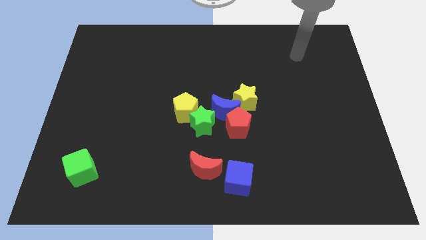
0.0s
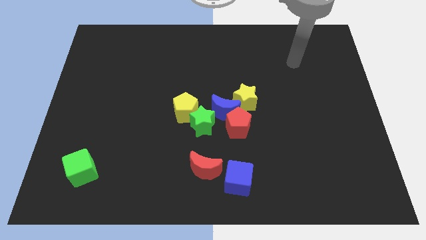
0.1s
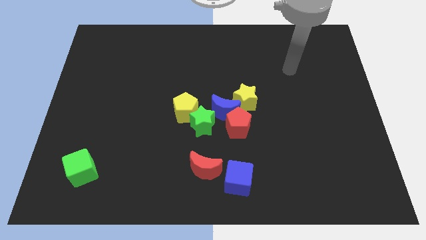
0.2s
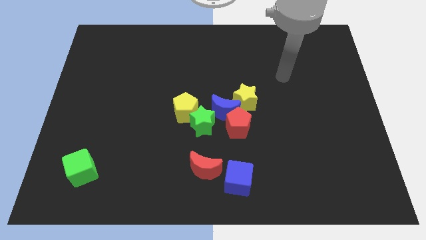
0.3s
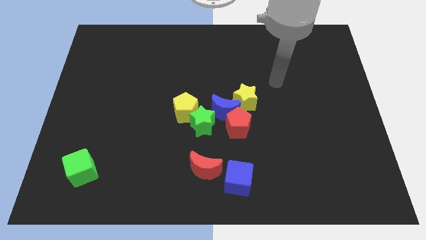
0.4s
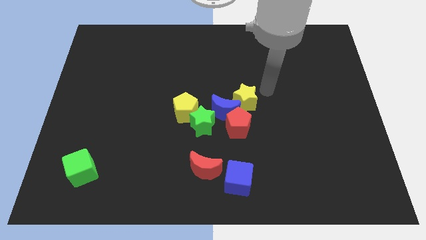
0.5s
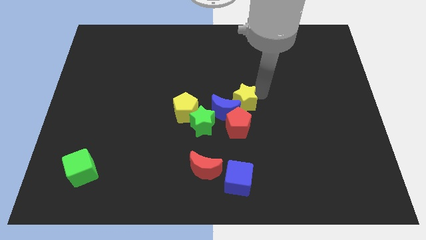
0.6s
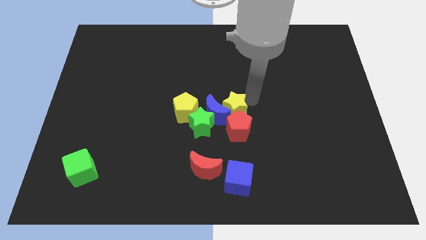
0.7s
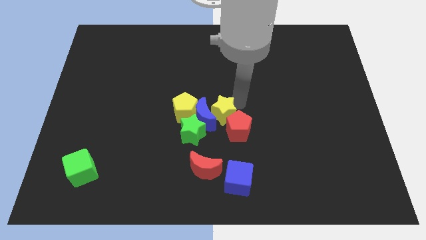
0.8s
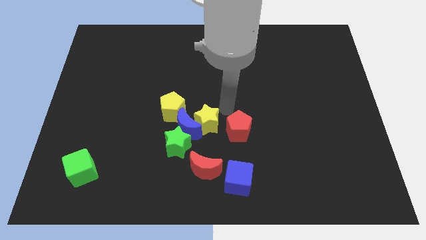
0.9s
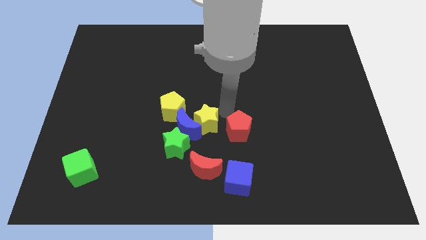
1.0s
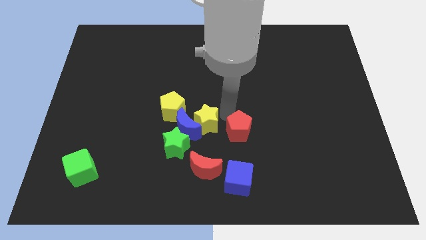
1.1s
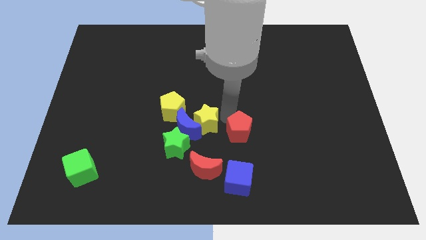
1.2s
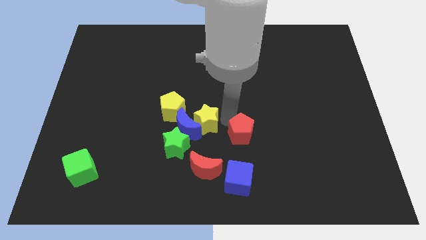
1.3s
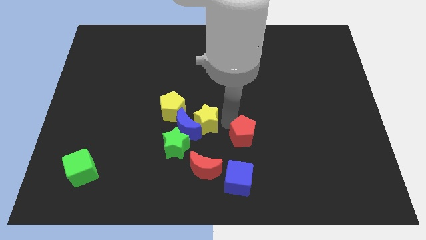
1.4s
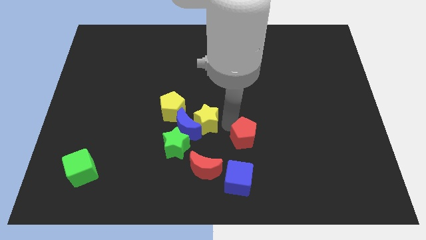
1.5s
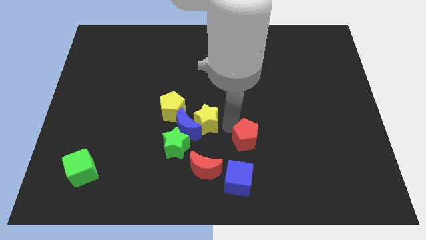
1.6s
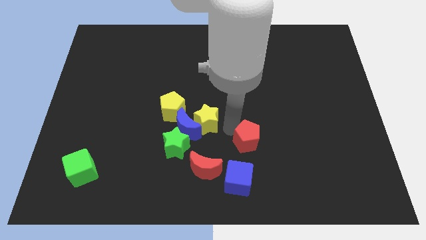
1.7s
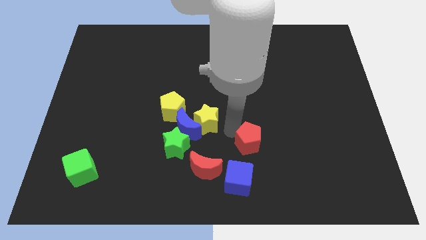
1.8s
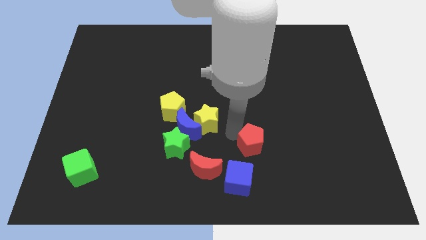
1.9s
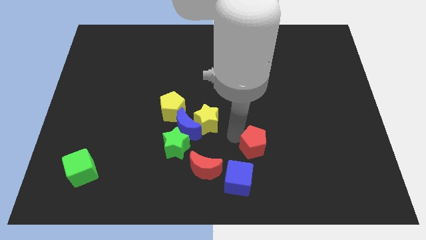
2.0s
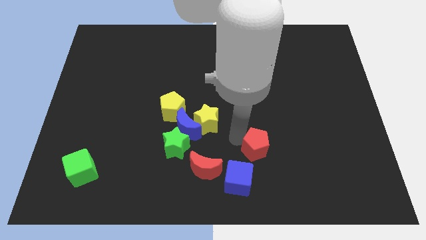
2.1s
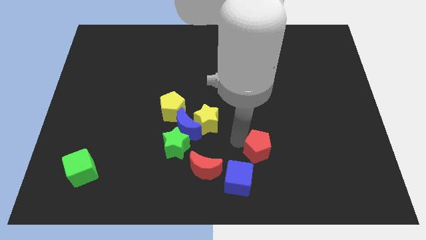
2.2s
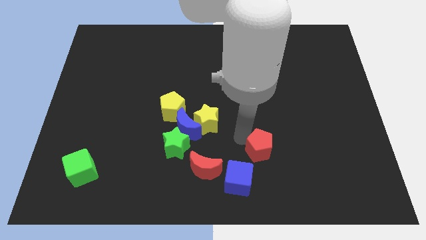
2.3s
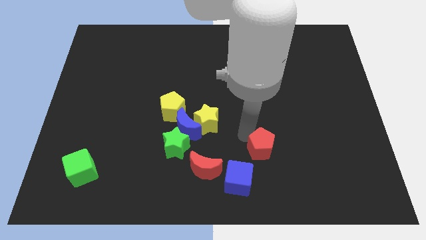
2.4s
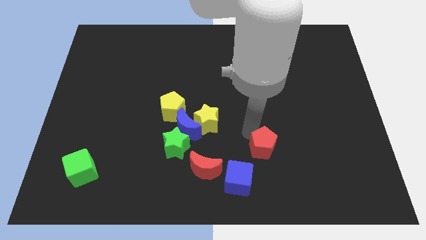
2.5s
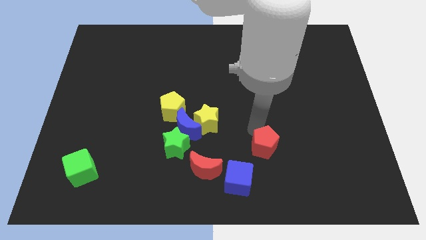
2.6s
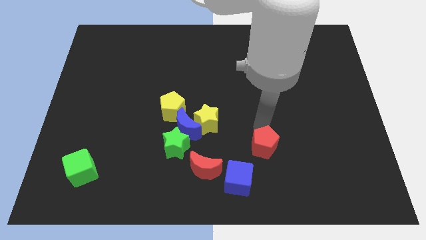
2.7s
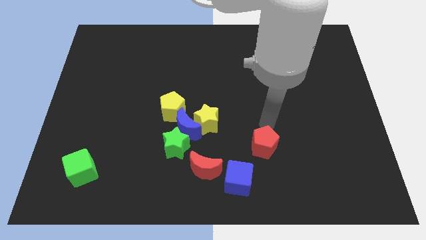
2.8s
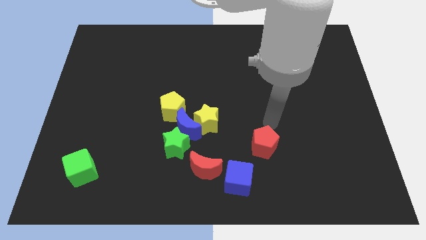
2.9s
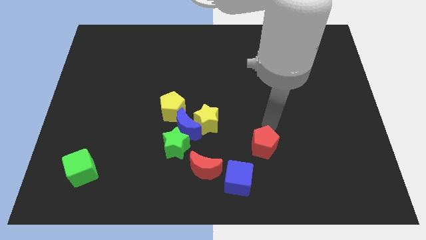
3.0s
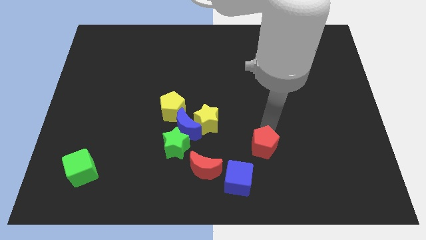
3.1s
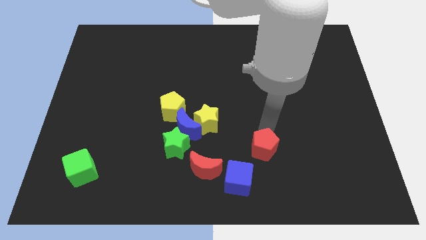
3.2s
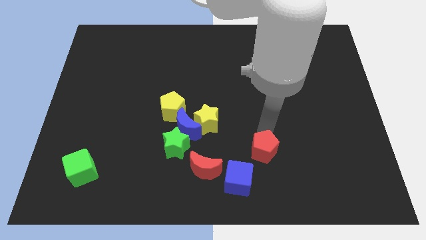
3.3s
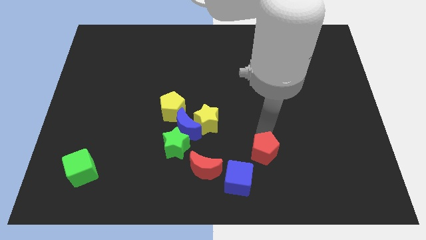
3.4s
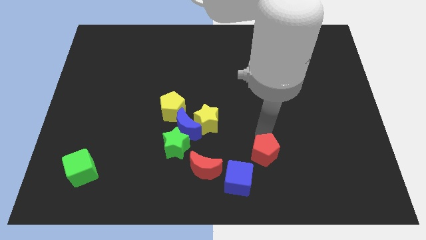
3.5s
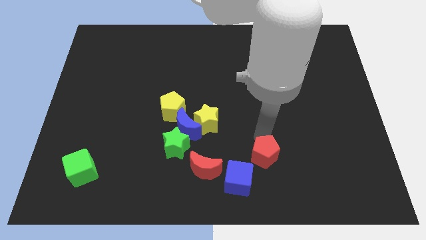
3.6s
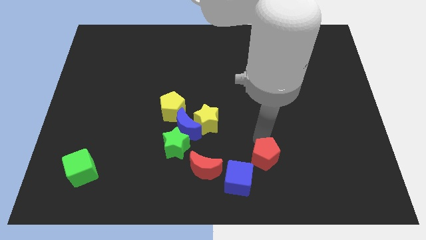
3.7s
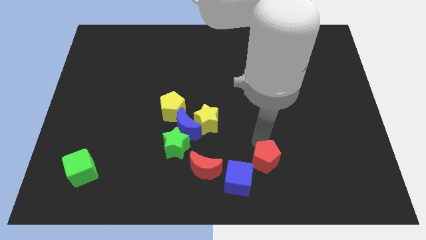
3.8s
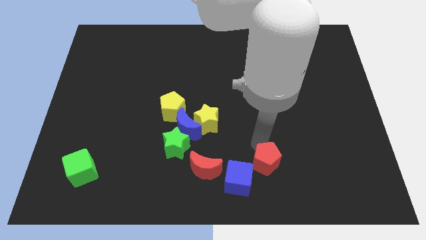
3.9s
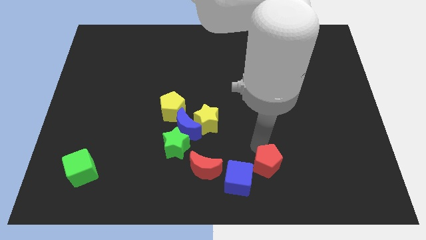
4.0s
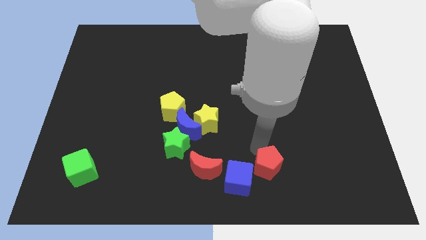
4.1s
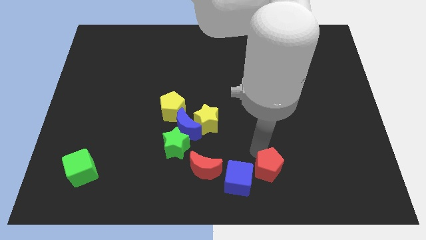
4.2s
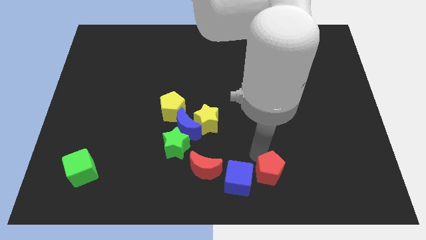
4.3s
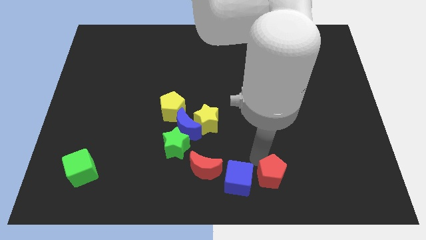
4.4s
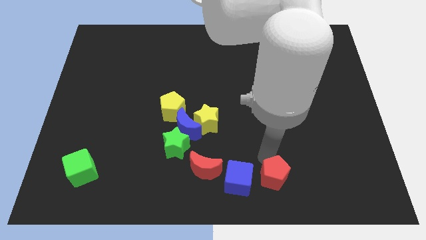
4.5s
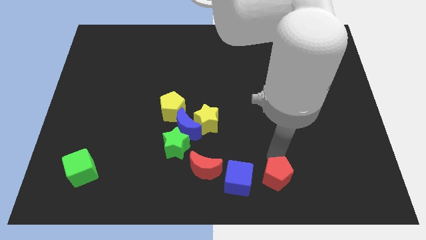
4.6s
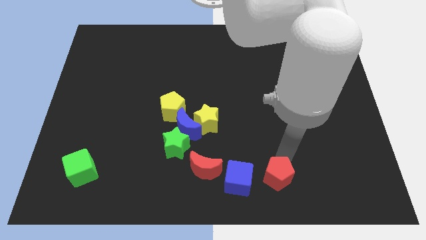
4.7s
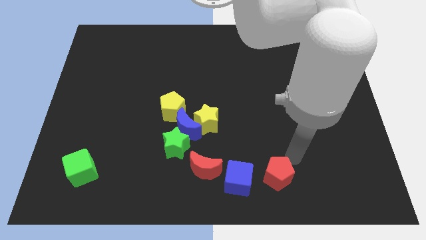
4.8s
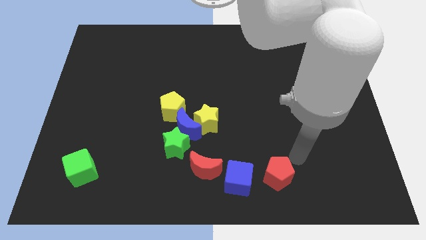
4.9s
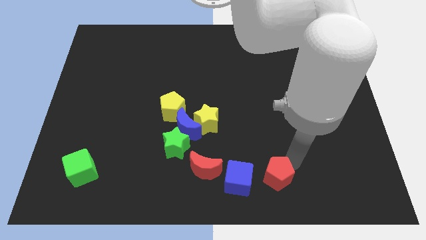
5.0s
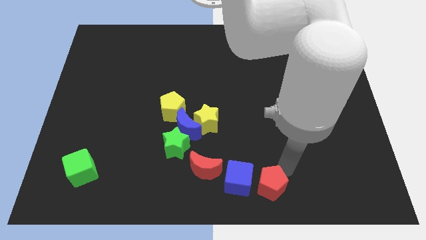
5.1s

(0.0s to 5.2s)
push the red pentagon to the bottom side

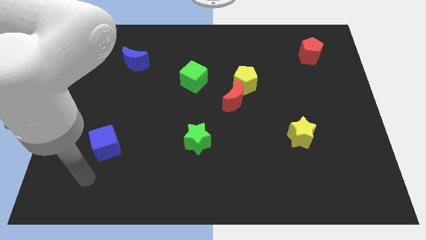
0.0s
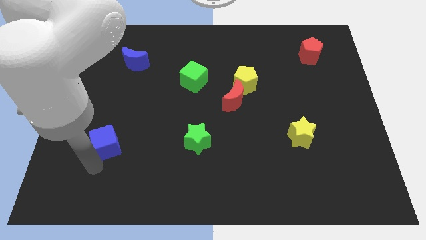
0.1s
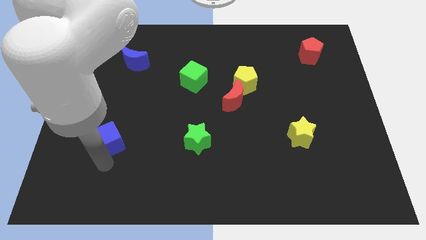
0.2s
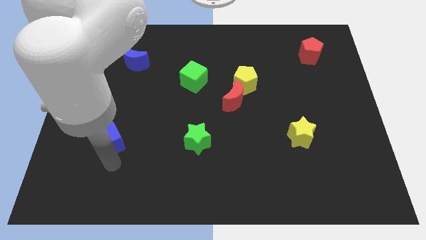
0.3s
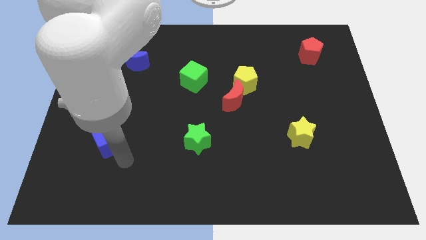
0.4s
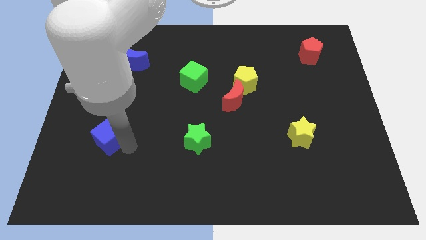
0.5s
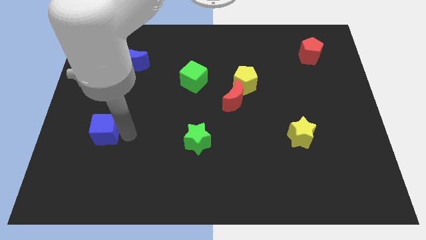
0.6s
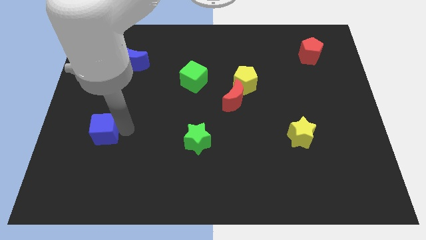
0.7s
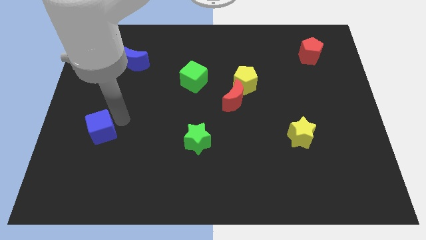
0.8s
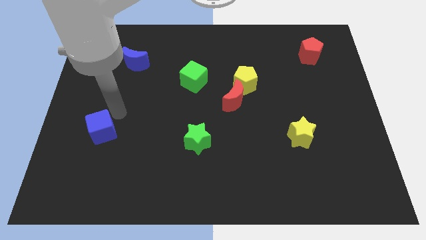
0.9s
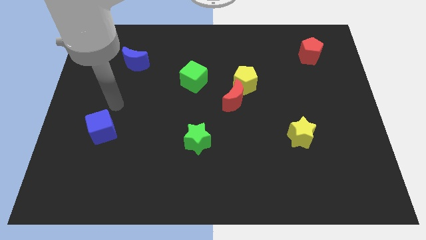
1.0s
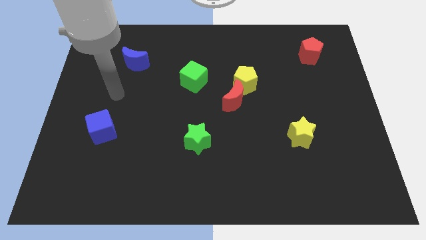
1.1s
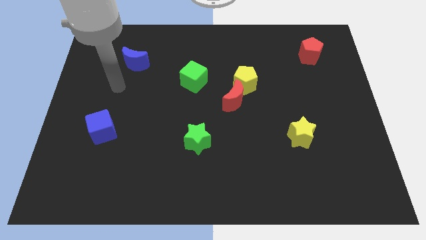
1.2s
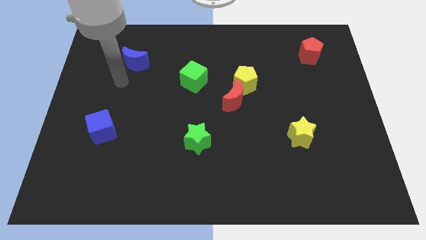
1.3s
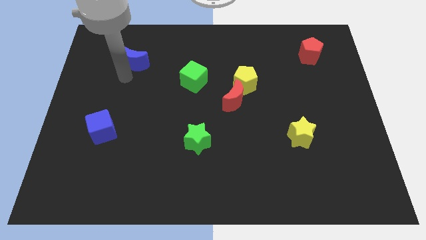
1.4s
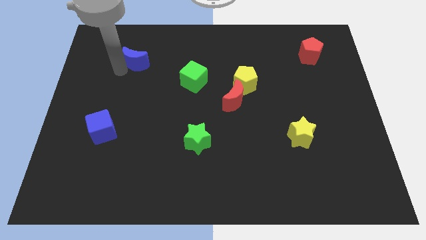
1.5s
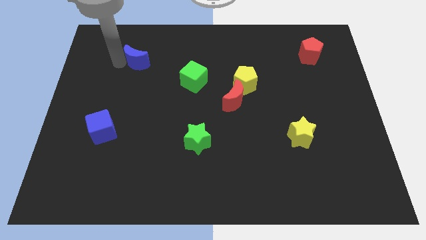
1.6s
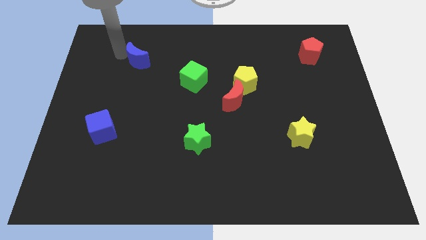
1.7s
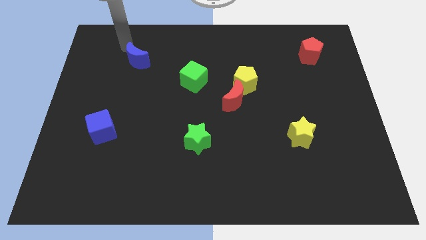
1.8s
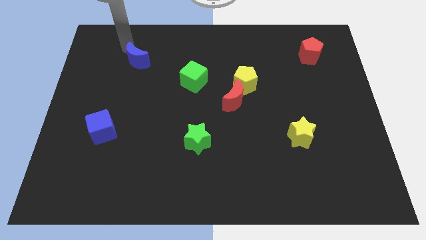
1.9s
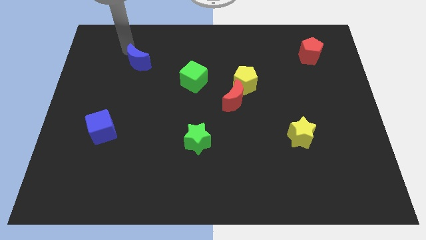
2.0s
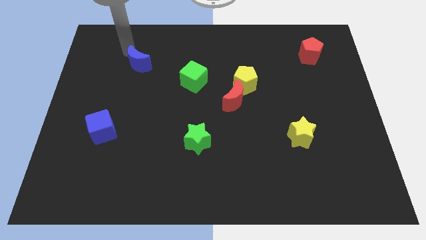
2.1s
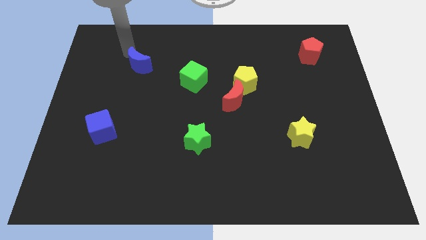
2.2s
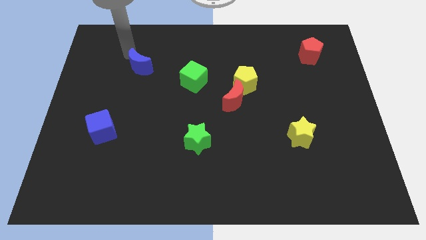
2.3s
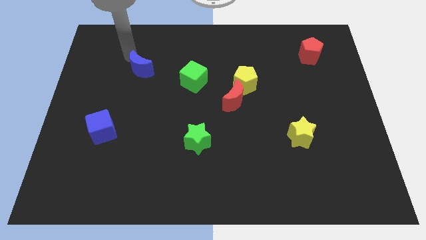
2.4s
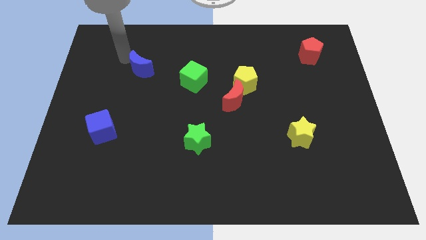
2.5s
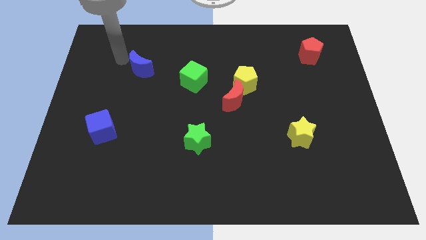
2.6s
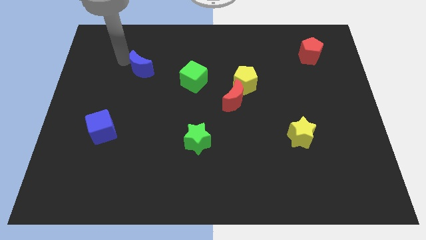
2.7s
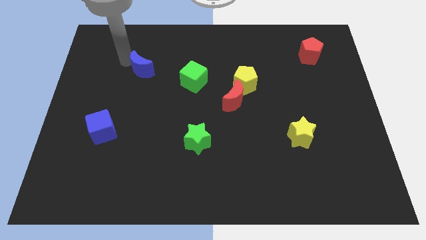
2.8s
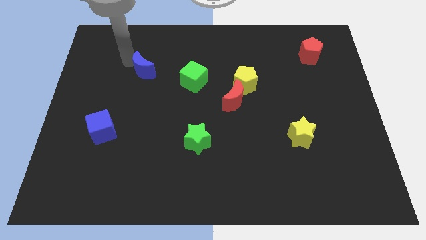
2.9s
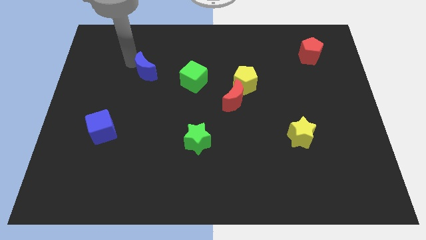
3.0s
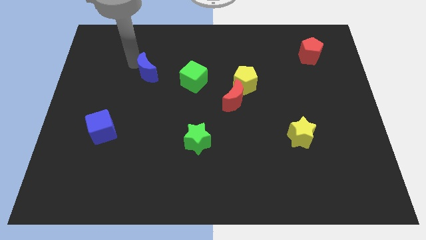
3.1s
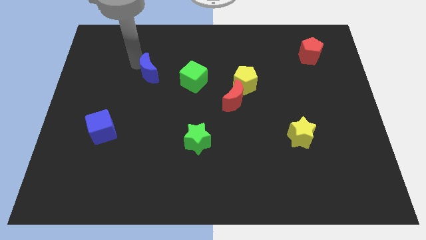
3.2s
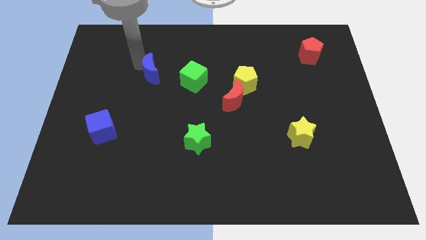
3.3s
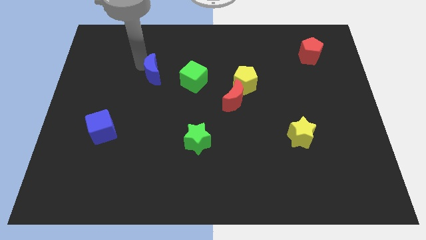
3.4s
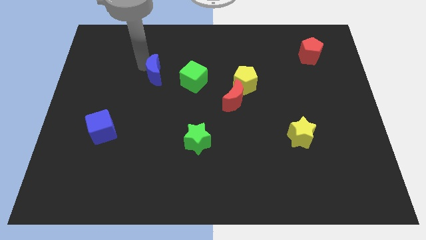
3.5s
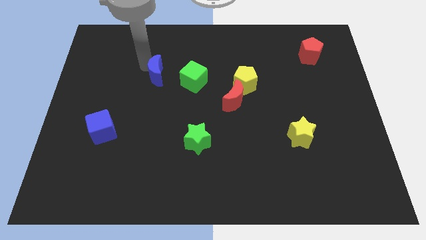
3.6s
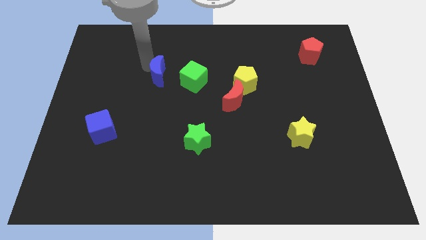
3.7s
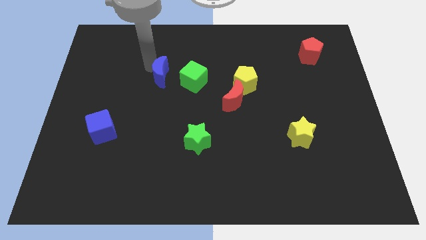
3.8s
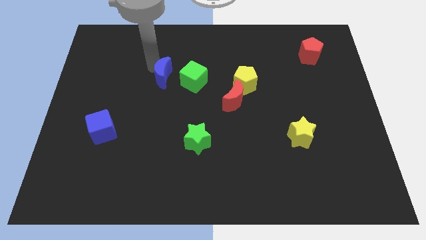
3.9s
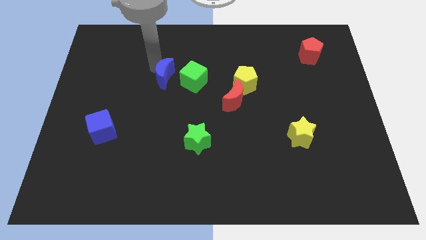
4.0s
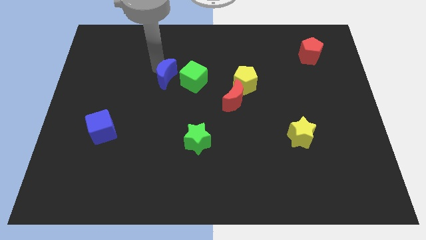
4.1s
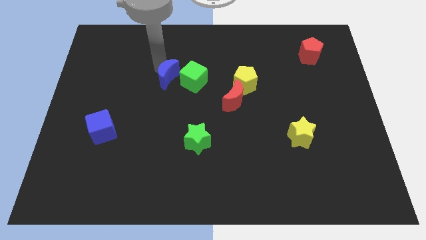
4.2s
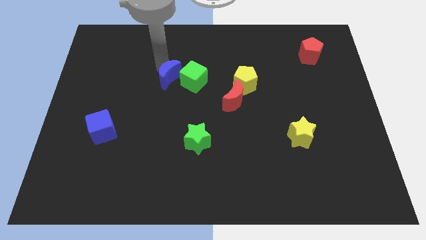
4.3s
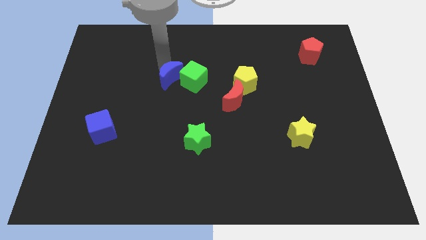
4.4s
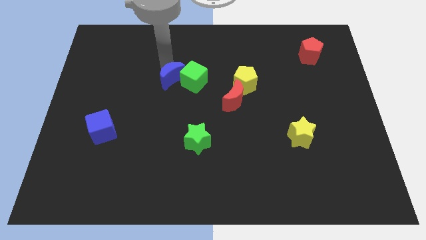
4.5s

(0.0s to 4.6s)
put the blue moon to the middle
